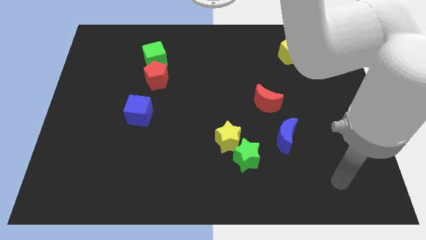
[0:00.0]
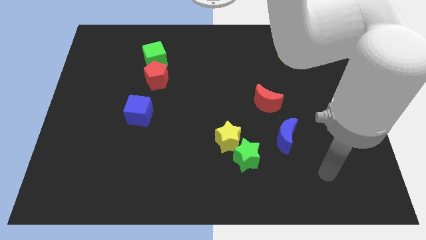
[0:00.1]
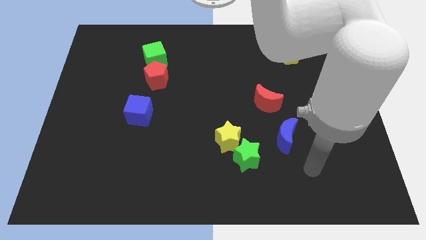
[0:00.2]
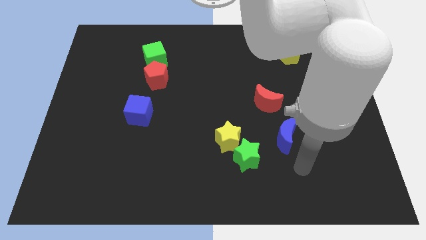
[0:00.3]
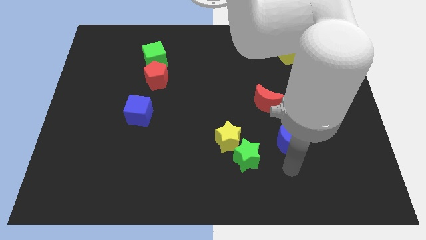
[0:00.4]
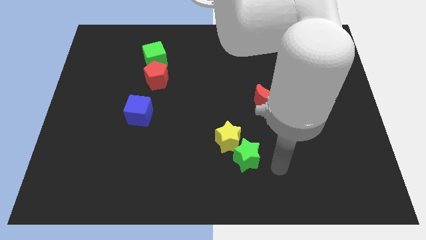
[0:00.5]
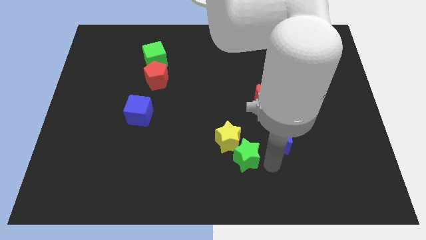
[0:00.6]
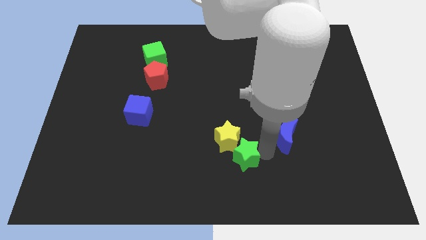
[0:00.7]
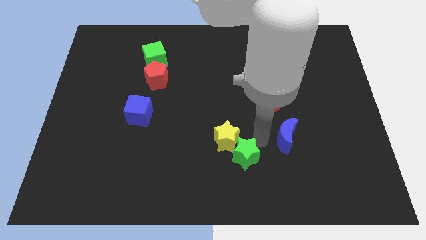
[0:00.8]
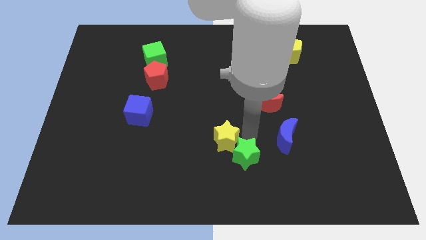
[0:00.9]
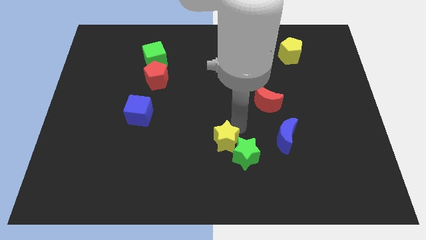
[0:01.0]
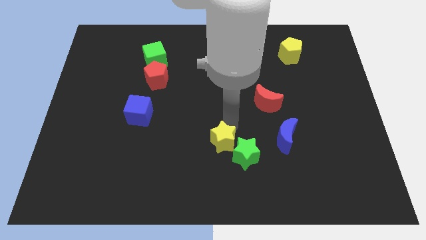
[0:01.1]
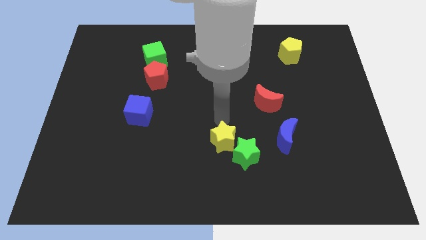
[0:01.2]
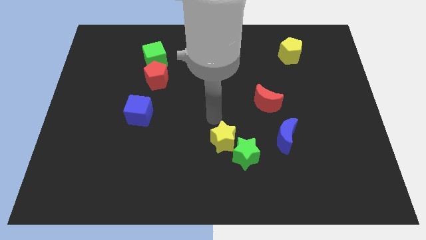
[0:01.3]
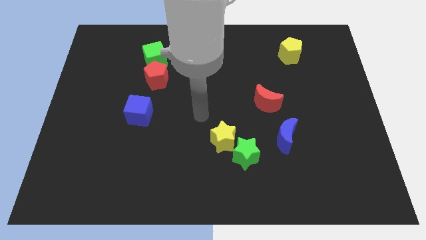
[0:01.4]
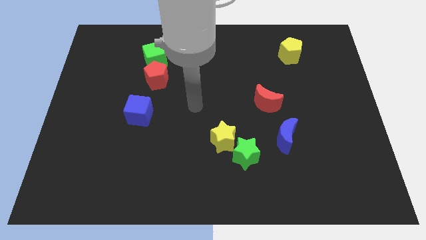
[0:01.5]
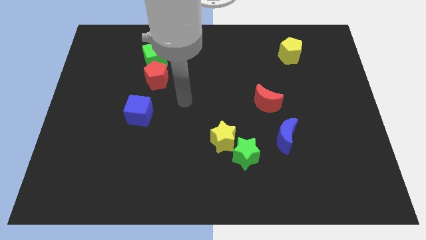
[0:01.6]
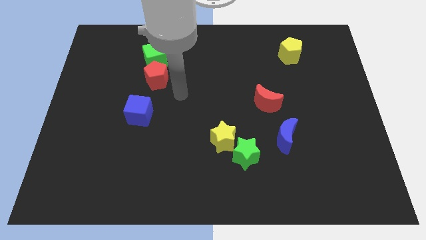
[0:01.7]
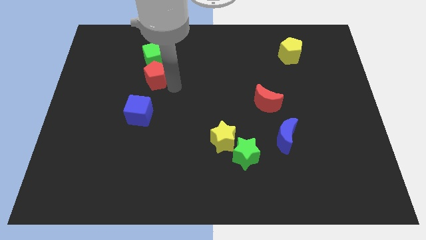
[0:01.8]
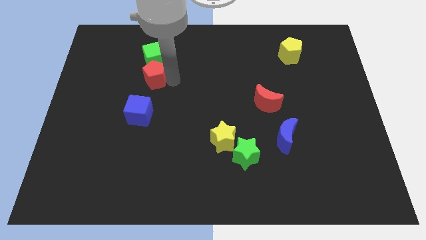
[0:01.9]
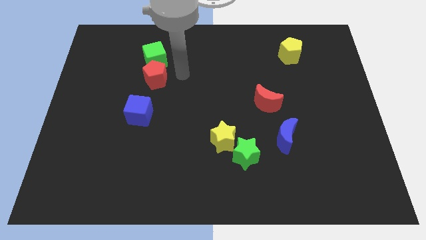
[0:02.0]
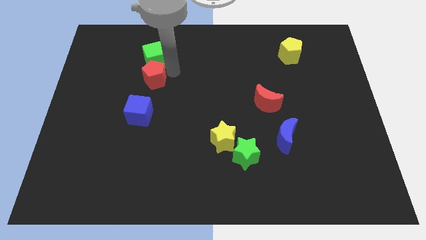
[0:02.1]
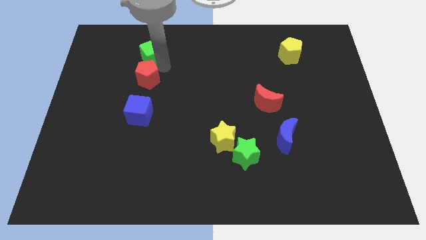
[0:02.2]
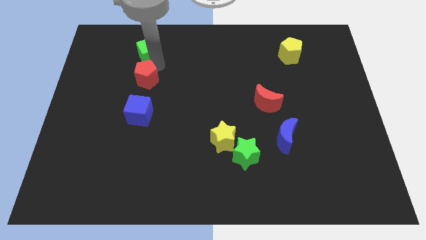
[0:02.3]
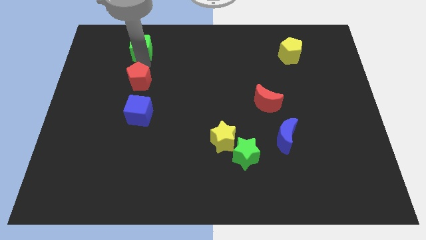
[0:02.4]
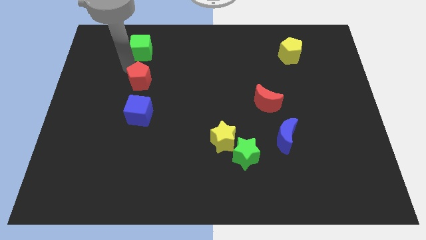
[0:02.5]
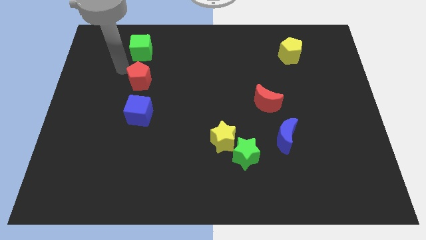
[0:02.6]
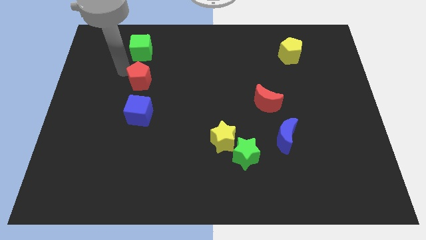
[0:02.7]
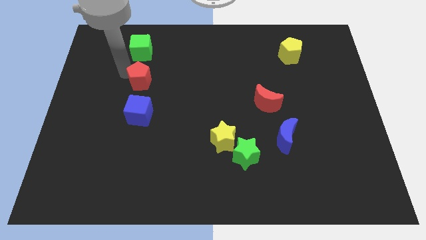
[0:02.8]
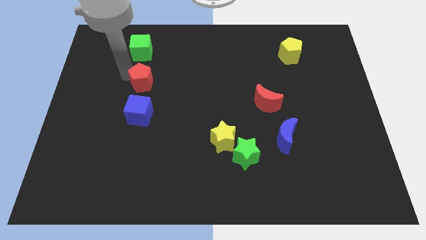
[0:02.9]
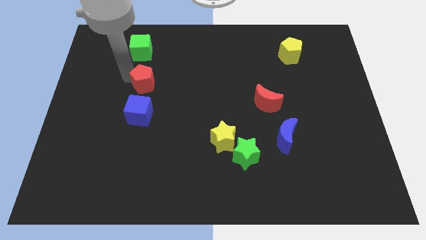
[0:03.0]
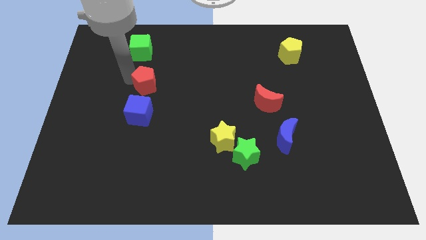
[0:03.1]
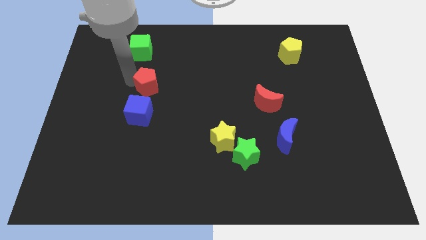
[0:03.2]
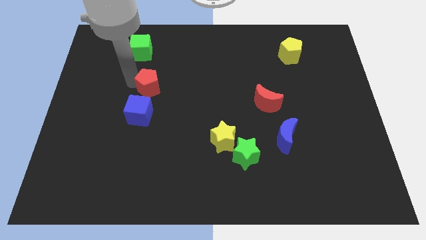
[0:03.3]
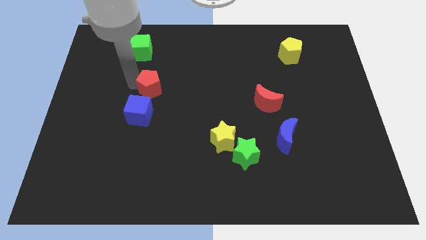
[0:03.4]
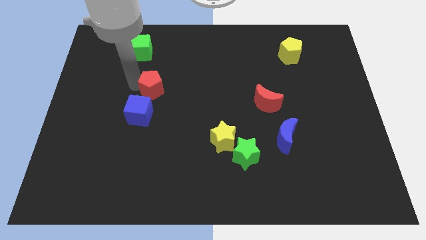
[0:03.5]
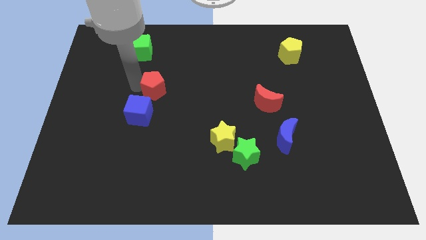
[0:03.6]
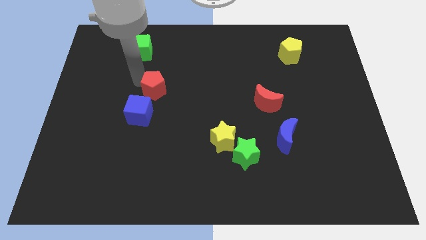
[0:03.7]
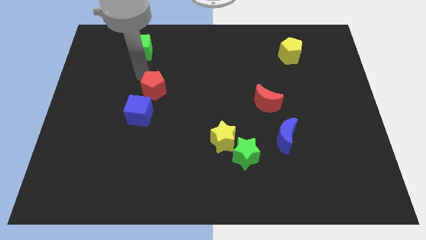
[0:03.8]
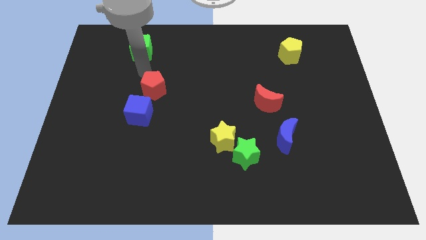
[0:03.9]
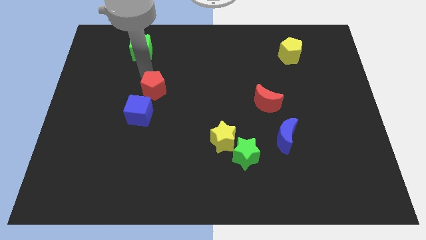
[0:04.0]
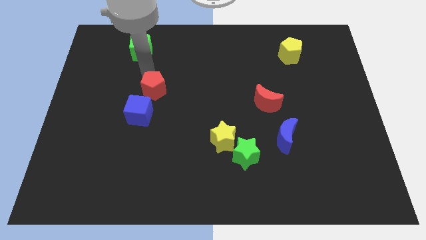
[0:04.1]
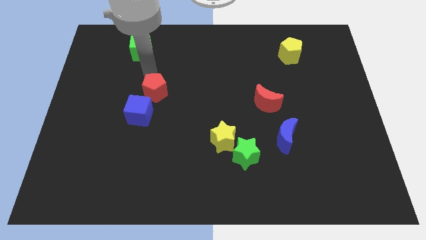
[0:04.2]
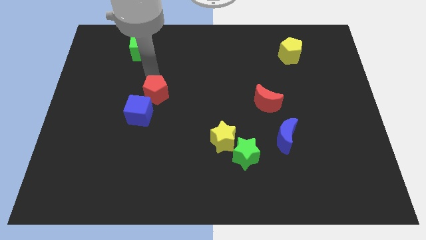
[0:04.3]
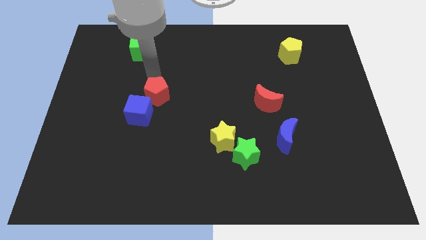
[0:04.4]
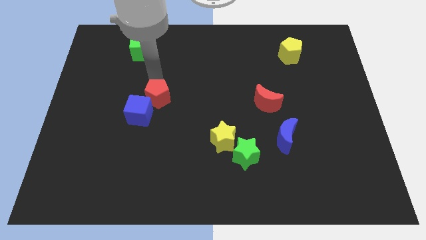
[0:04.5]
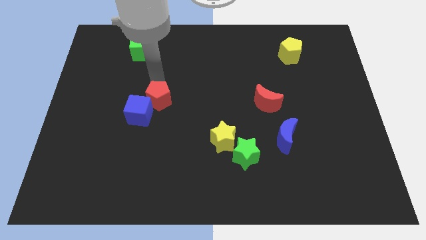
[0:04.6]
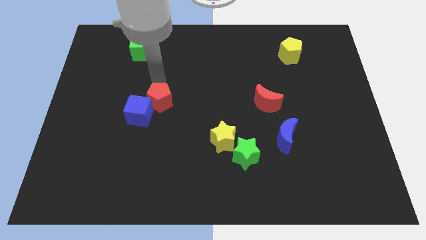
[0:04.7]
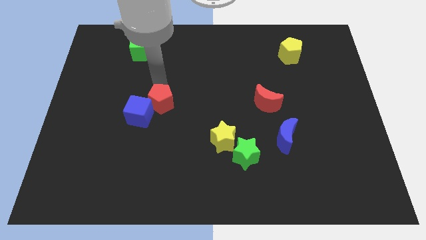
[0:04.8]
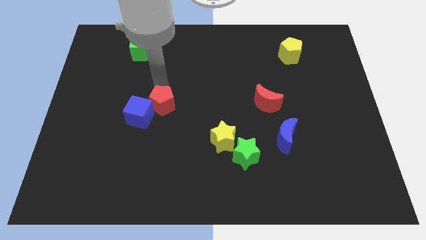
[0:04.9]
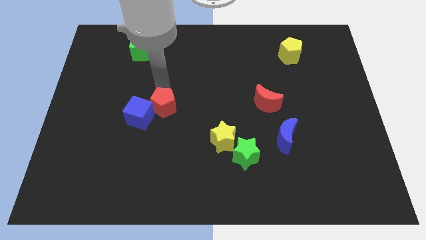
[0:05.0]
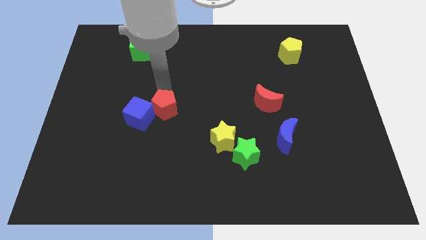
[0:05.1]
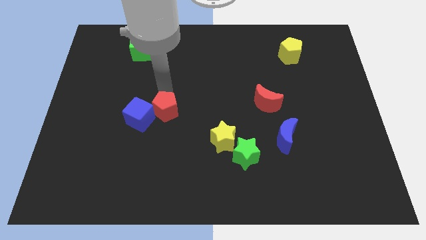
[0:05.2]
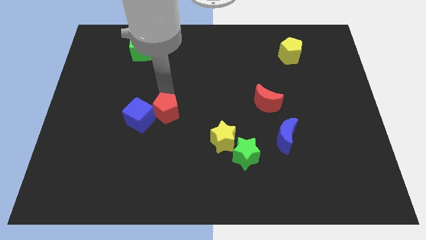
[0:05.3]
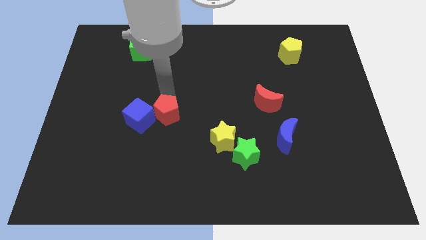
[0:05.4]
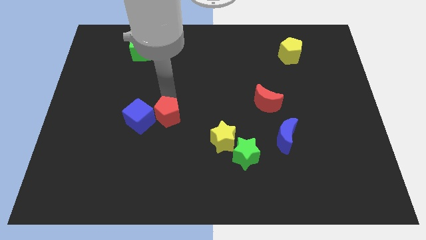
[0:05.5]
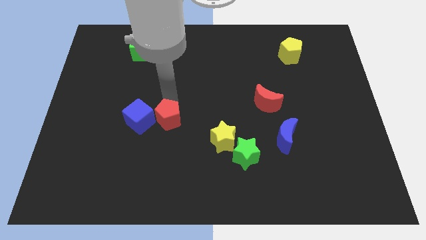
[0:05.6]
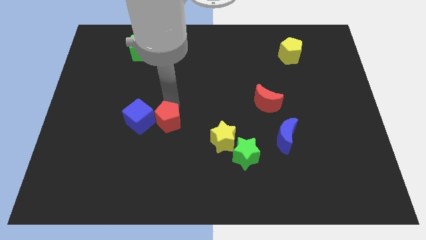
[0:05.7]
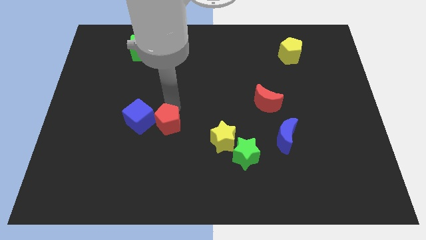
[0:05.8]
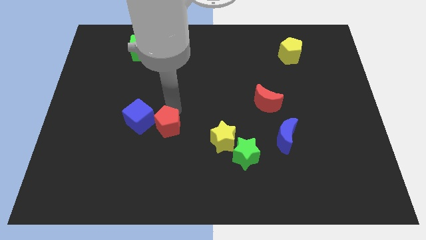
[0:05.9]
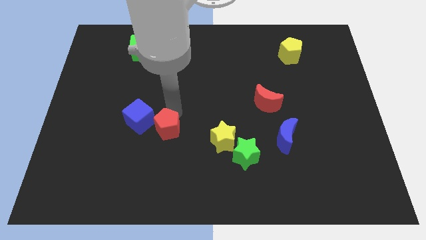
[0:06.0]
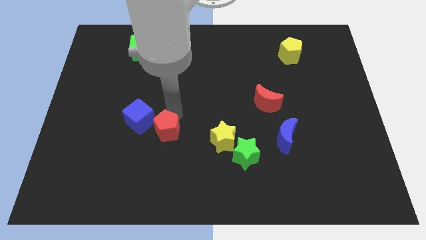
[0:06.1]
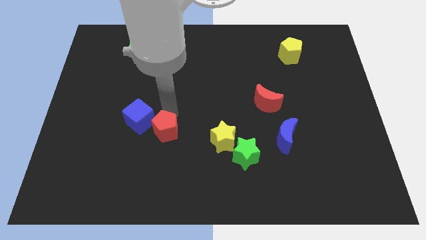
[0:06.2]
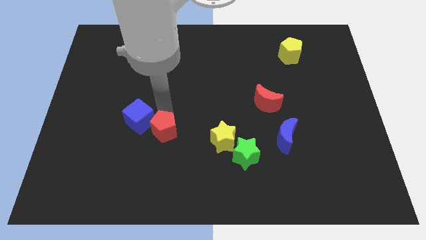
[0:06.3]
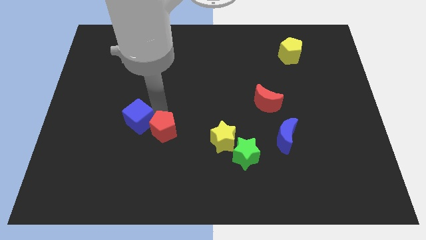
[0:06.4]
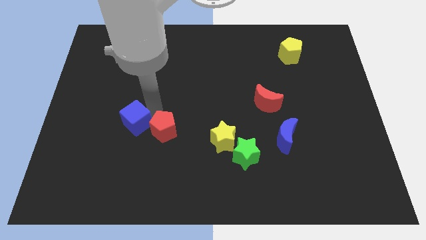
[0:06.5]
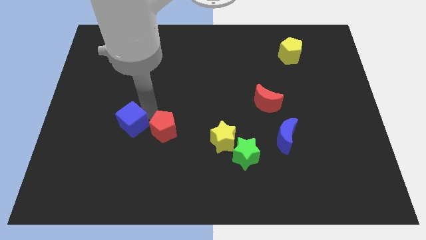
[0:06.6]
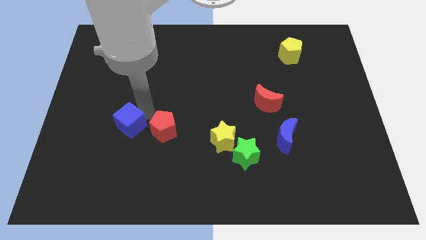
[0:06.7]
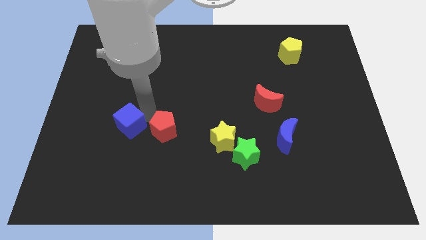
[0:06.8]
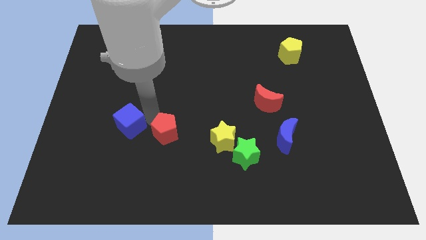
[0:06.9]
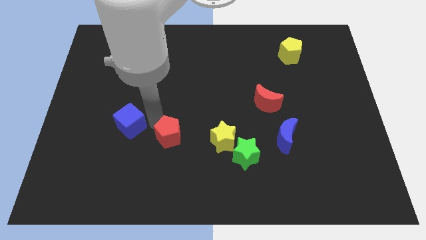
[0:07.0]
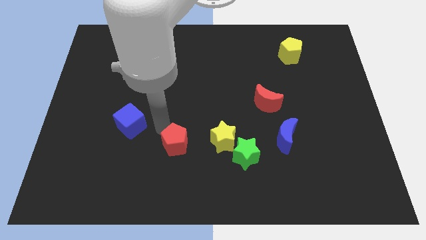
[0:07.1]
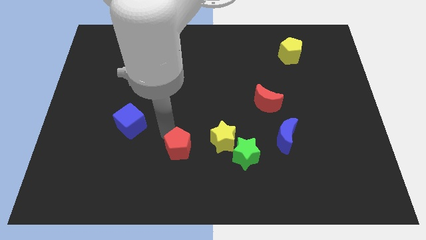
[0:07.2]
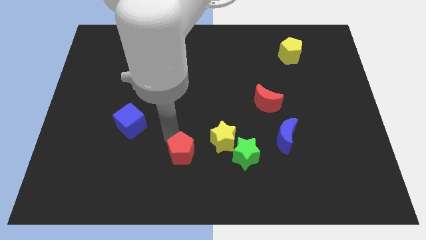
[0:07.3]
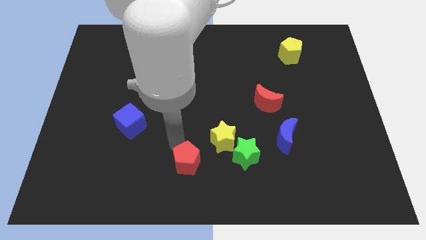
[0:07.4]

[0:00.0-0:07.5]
slide the red pentagon to the bottom side
